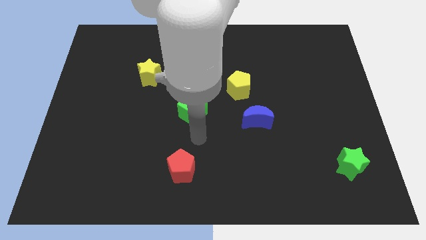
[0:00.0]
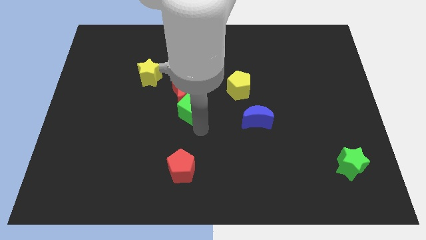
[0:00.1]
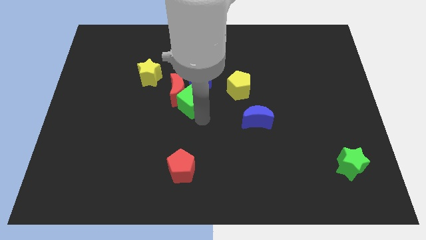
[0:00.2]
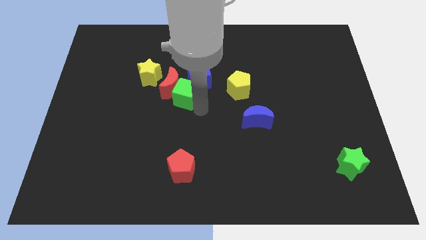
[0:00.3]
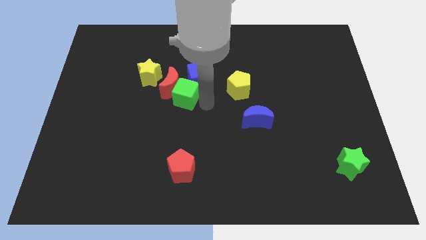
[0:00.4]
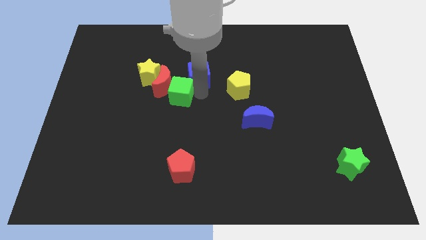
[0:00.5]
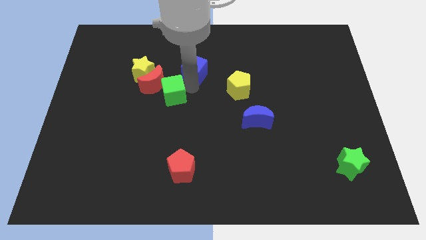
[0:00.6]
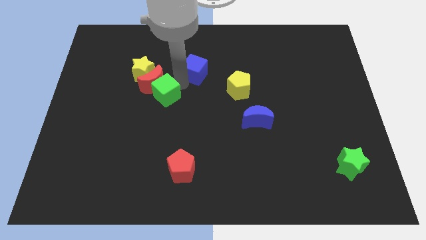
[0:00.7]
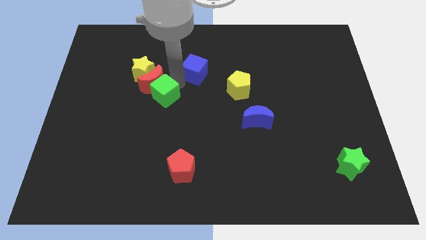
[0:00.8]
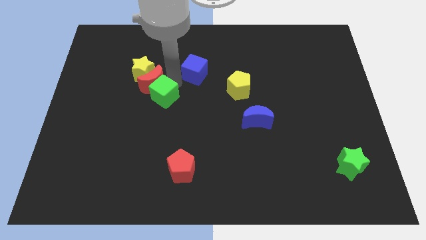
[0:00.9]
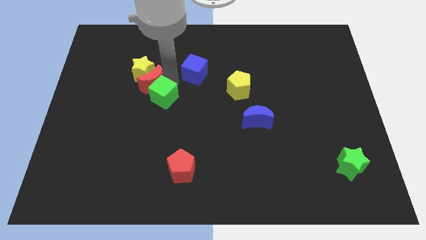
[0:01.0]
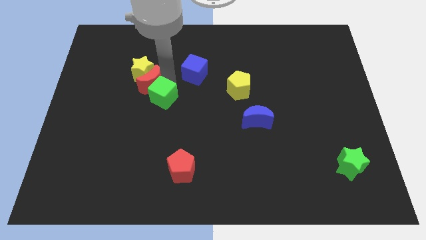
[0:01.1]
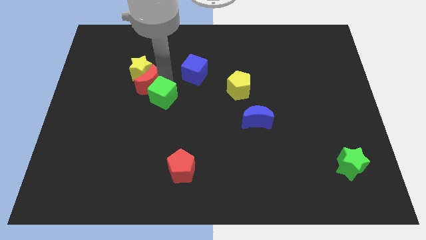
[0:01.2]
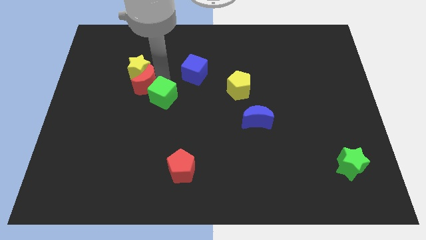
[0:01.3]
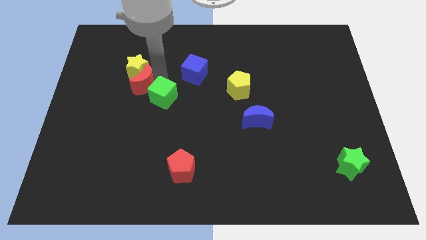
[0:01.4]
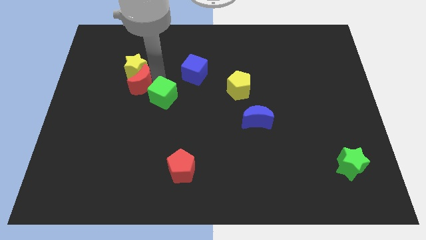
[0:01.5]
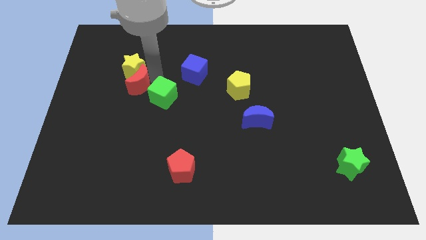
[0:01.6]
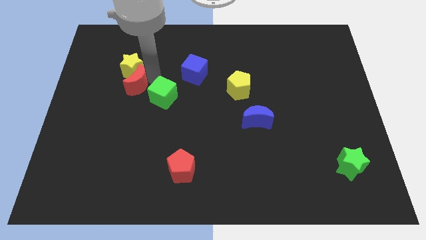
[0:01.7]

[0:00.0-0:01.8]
pull the red moon apart from the green cube and blue cube

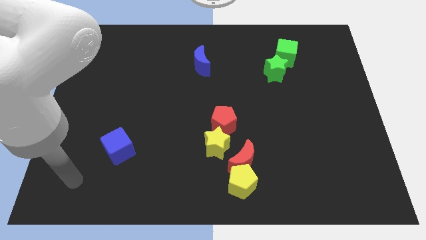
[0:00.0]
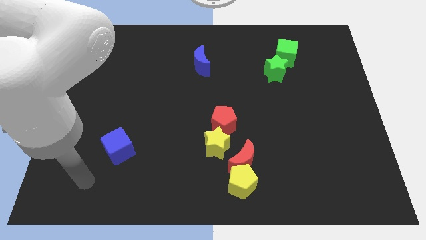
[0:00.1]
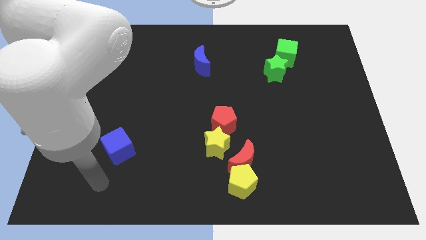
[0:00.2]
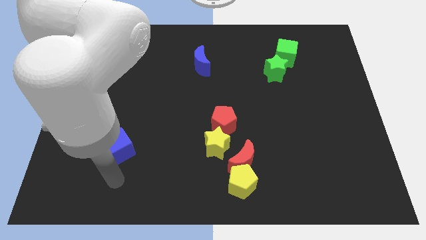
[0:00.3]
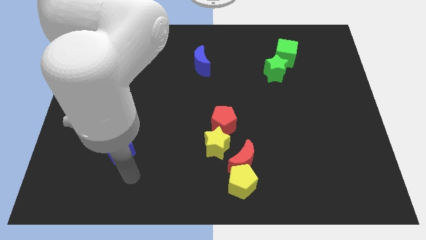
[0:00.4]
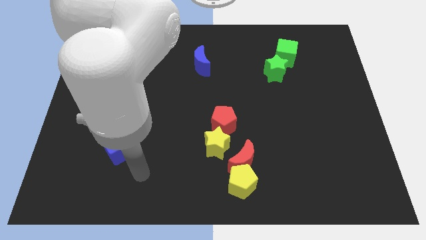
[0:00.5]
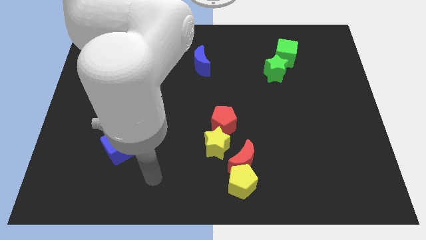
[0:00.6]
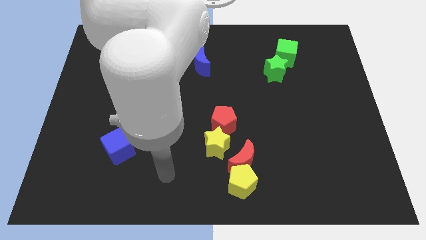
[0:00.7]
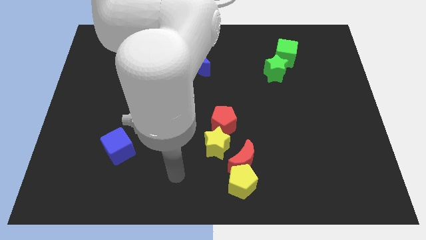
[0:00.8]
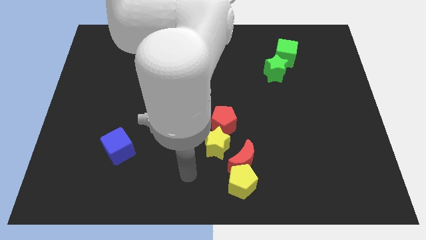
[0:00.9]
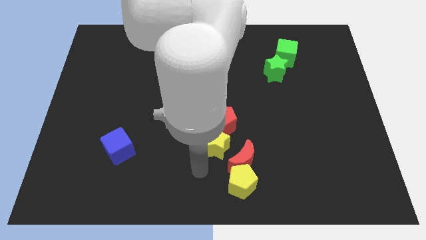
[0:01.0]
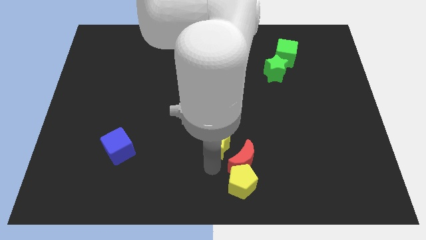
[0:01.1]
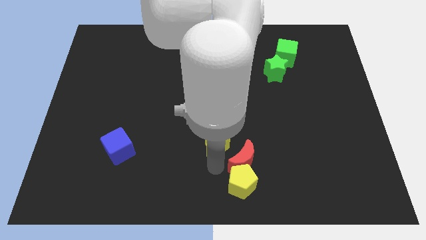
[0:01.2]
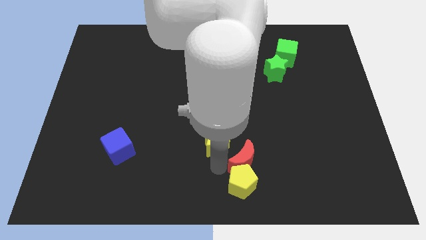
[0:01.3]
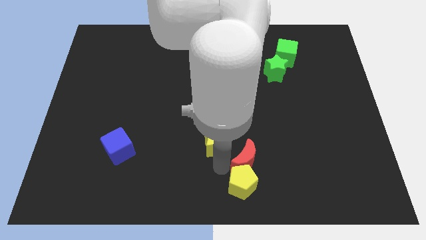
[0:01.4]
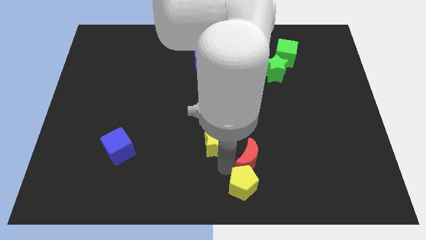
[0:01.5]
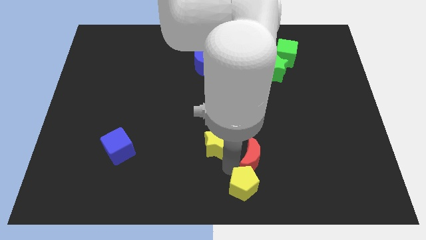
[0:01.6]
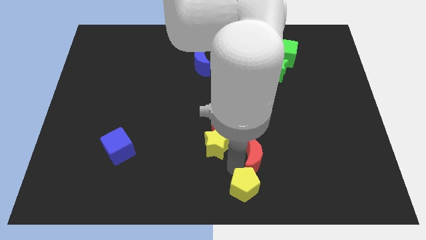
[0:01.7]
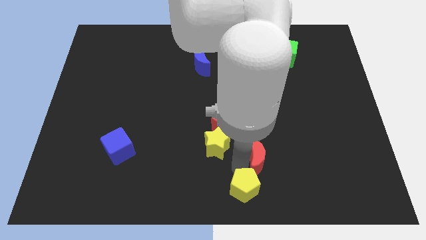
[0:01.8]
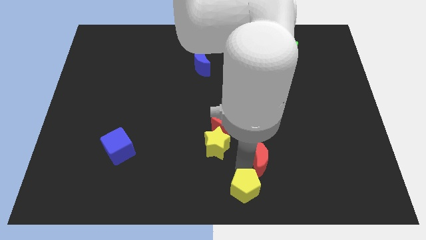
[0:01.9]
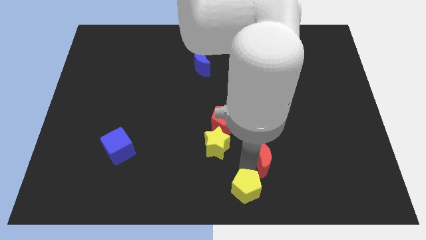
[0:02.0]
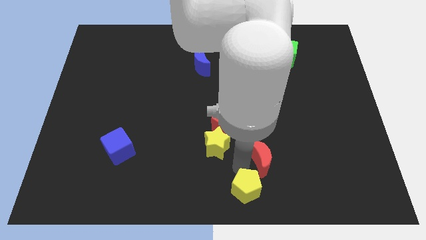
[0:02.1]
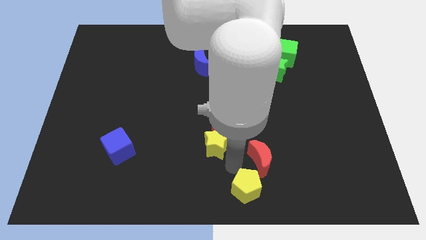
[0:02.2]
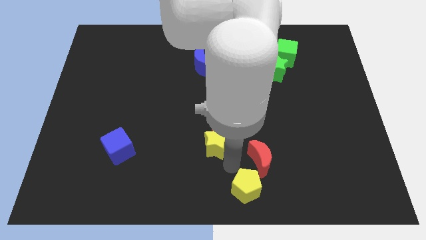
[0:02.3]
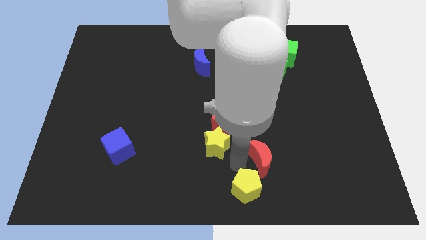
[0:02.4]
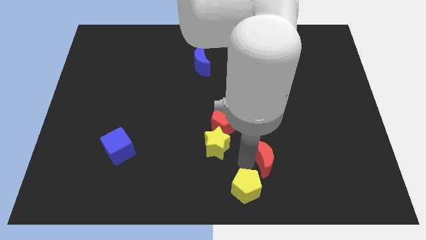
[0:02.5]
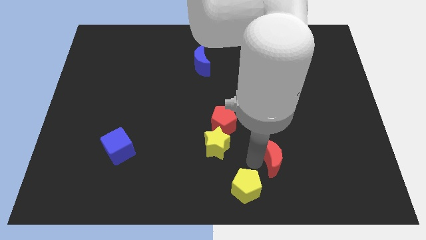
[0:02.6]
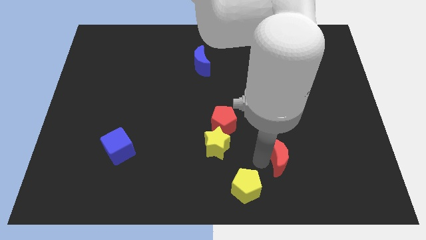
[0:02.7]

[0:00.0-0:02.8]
move the red moon away from the yellow pentagon and yellow star

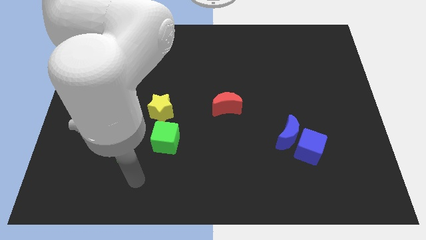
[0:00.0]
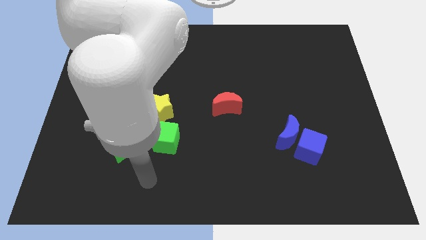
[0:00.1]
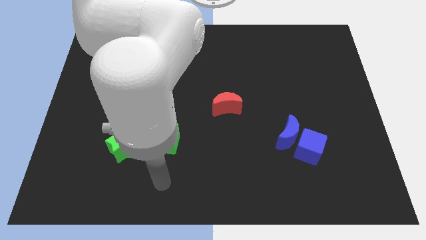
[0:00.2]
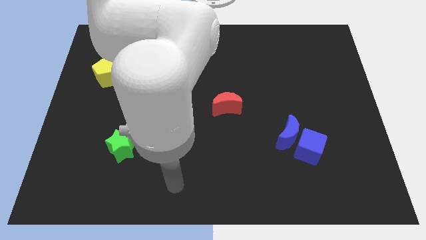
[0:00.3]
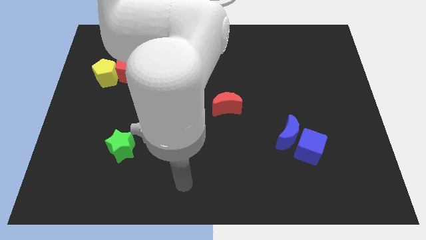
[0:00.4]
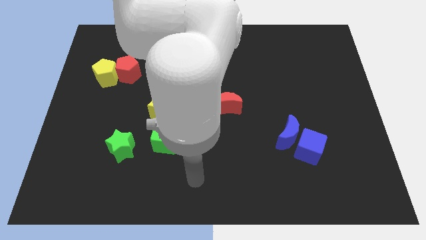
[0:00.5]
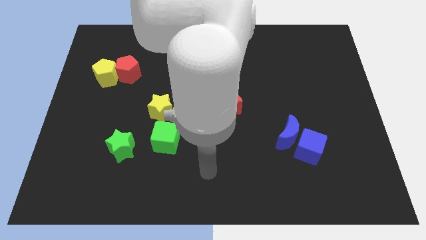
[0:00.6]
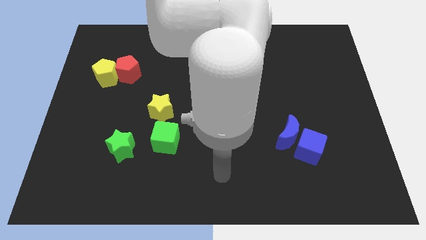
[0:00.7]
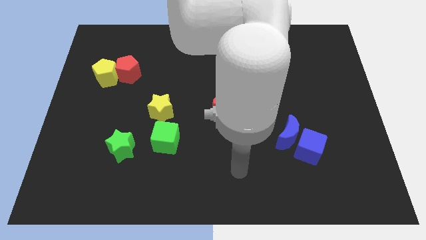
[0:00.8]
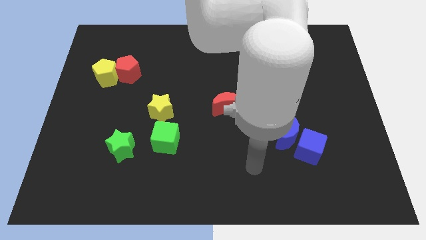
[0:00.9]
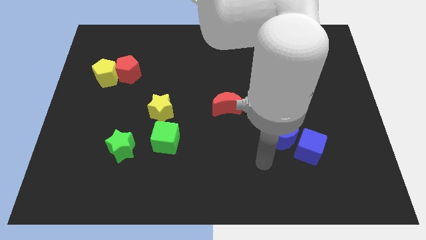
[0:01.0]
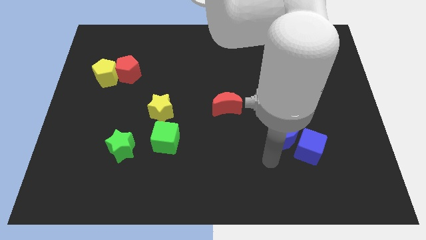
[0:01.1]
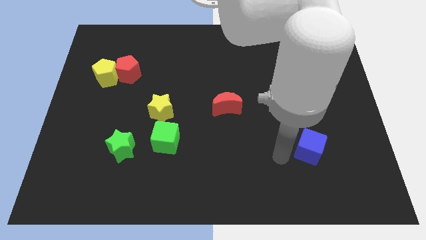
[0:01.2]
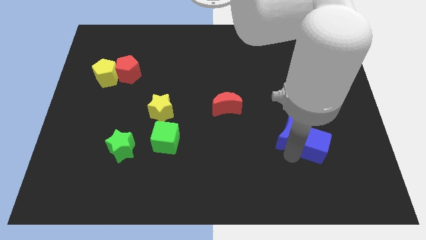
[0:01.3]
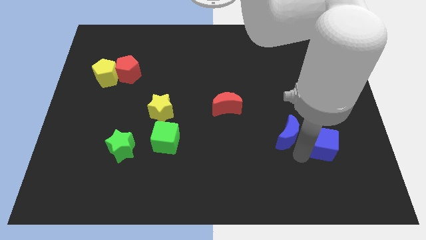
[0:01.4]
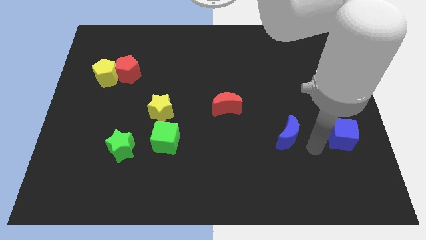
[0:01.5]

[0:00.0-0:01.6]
pull the blue moon apart from the blue cube

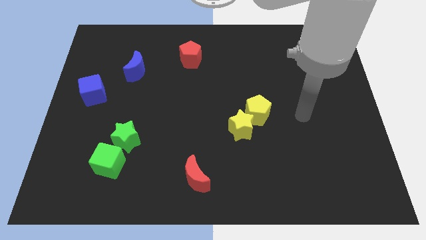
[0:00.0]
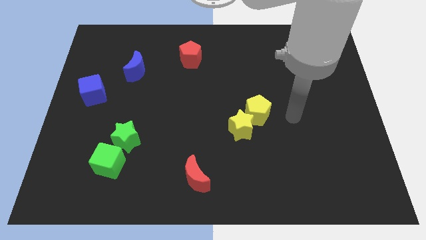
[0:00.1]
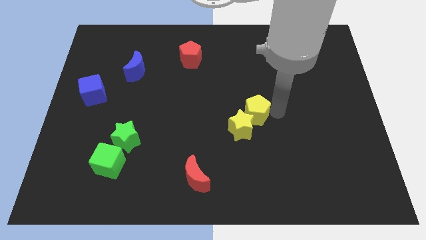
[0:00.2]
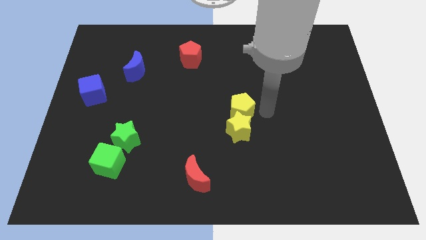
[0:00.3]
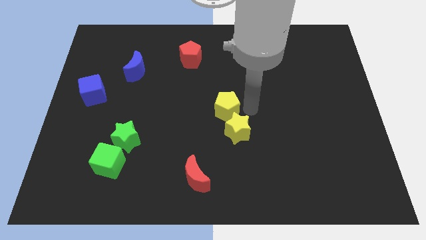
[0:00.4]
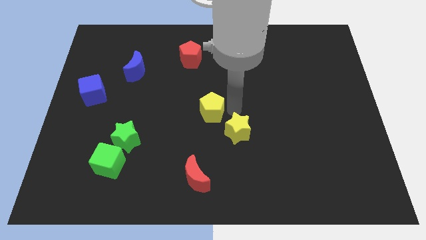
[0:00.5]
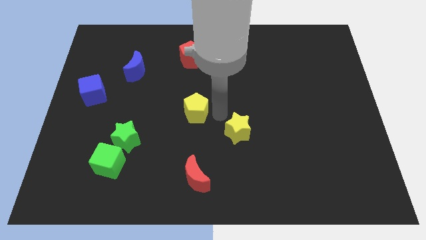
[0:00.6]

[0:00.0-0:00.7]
move the yellow star away from the yellow pentagon

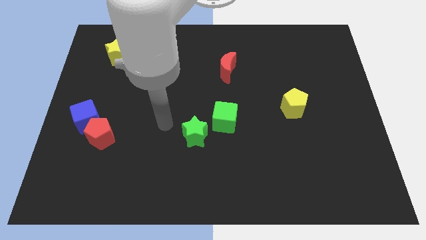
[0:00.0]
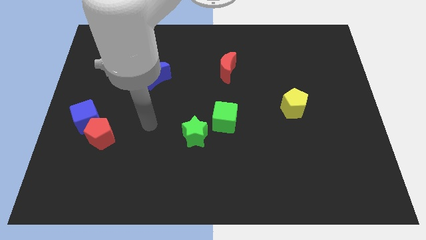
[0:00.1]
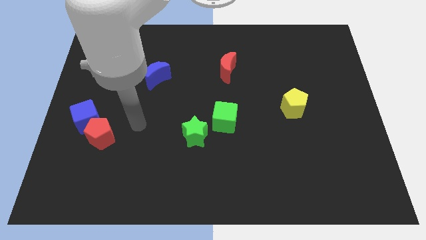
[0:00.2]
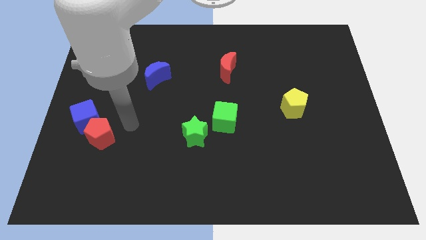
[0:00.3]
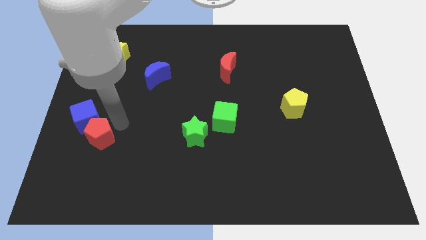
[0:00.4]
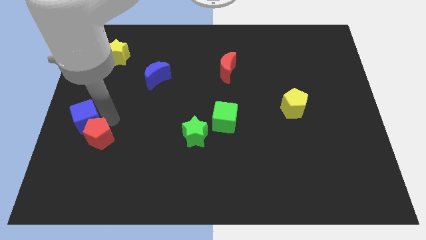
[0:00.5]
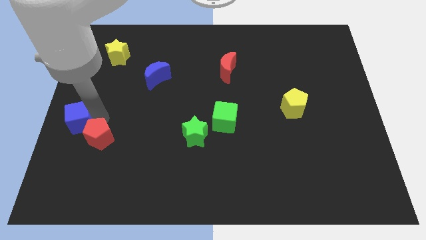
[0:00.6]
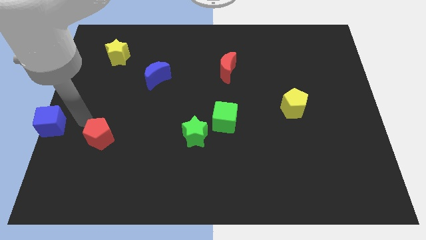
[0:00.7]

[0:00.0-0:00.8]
move the red pentagon away from the blue cube

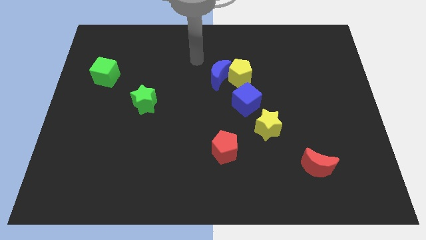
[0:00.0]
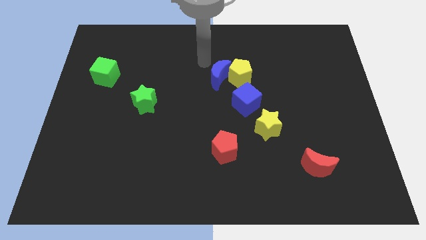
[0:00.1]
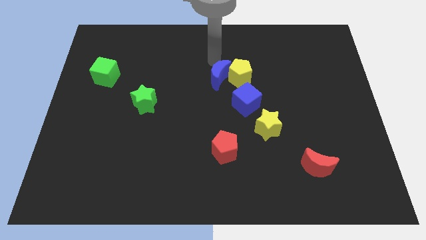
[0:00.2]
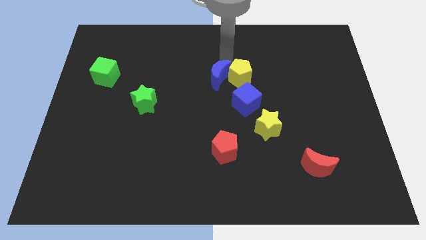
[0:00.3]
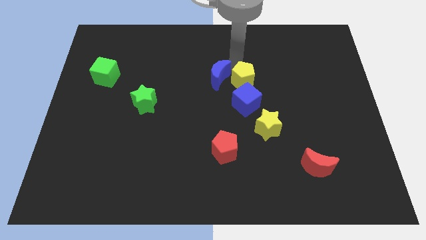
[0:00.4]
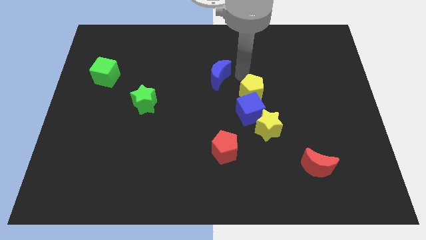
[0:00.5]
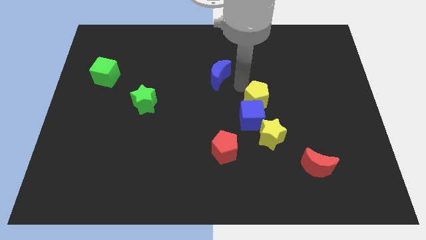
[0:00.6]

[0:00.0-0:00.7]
move the blue moon away from the yellow pentagon

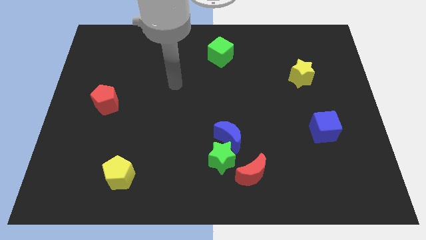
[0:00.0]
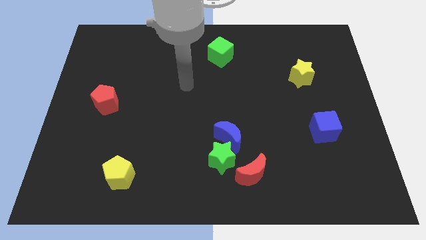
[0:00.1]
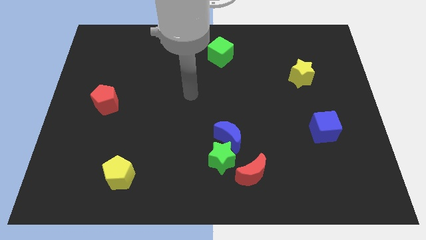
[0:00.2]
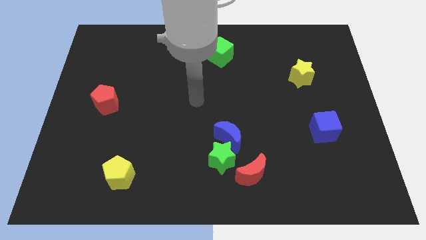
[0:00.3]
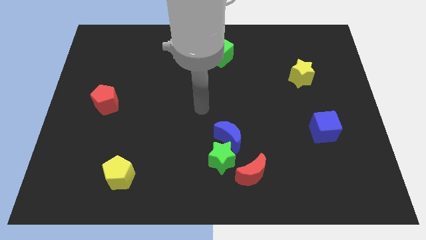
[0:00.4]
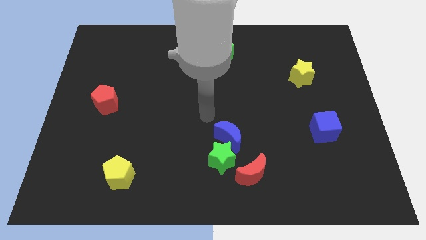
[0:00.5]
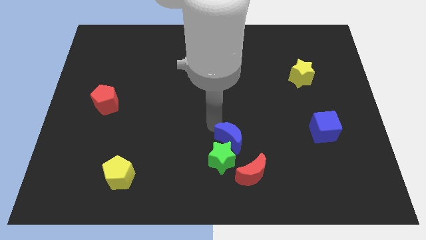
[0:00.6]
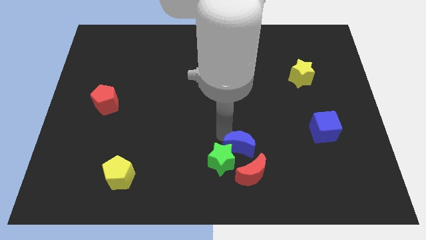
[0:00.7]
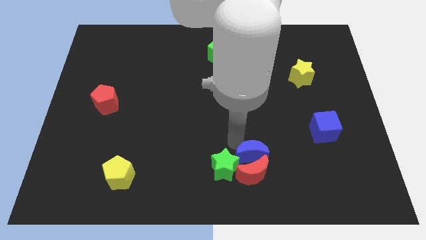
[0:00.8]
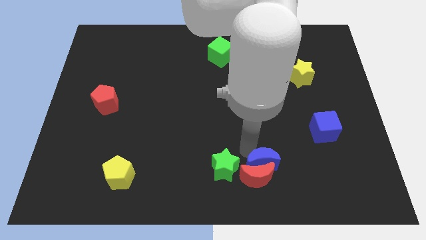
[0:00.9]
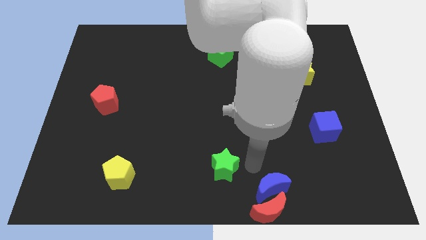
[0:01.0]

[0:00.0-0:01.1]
separate the green star from the blue moon and red moon
